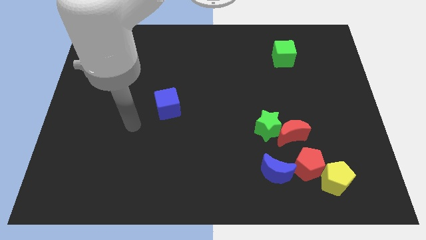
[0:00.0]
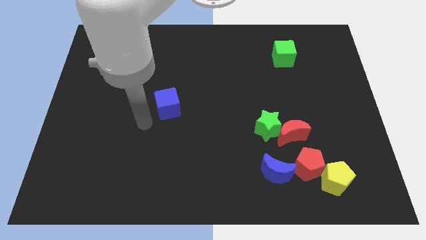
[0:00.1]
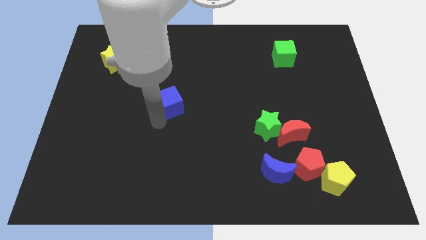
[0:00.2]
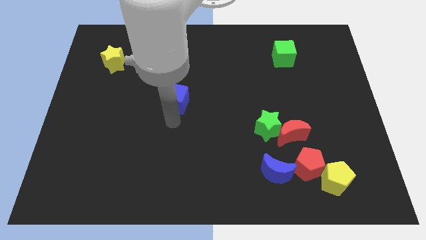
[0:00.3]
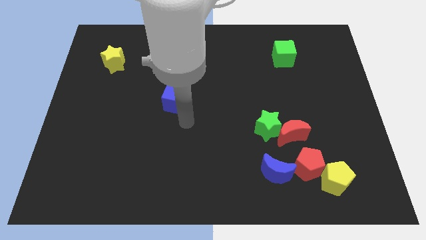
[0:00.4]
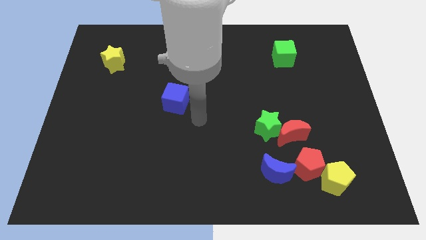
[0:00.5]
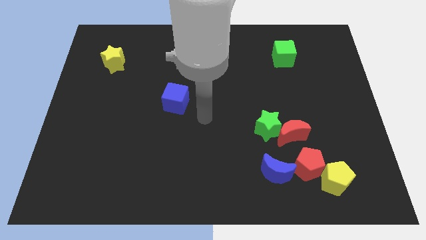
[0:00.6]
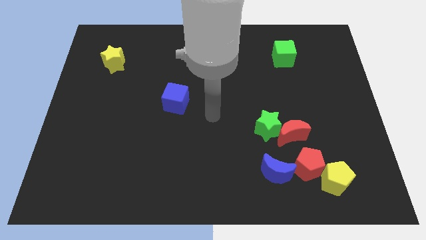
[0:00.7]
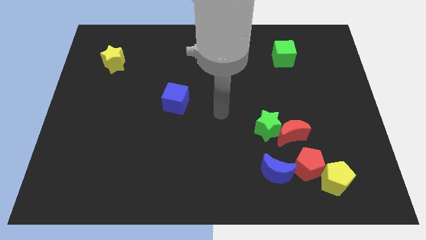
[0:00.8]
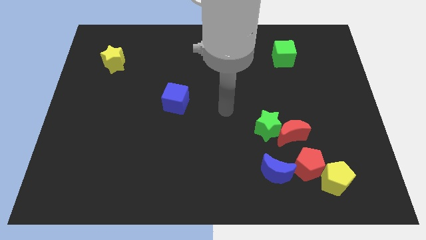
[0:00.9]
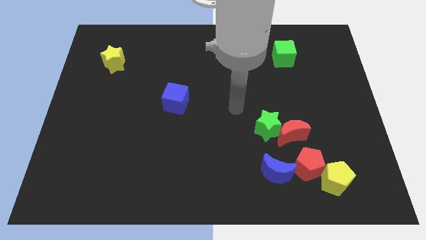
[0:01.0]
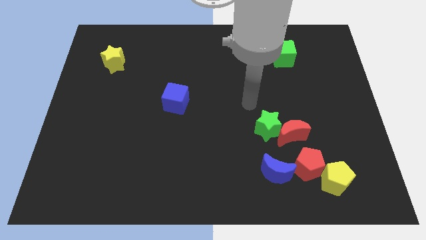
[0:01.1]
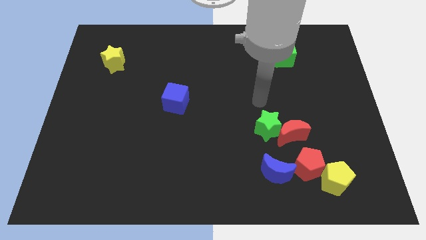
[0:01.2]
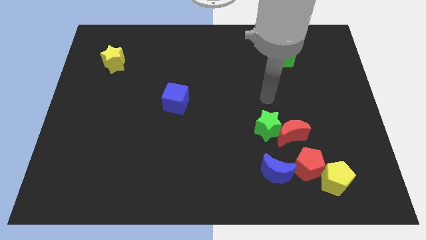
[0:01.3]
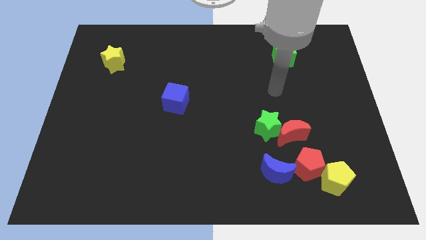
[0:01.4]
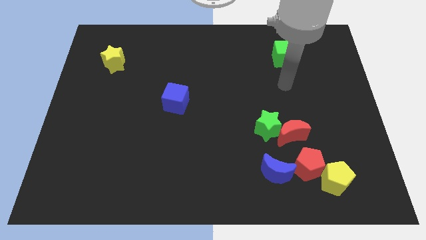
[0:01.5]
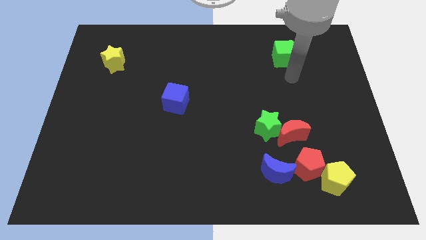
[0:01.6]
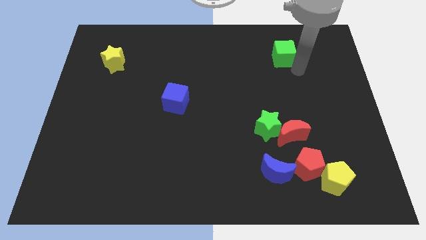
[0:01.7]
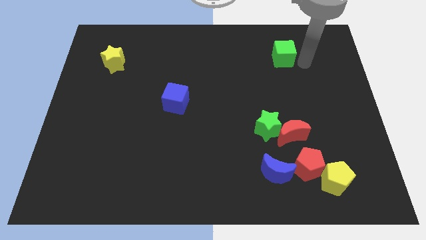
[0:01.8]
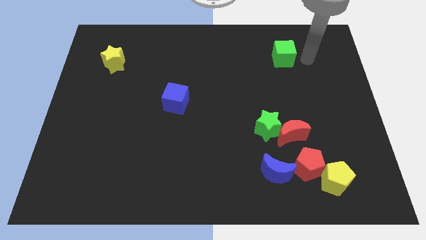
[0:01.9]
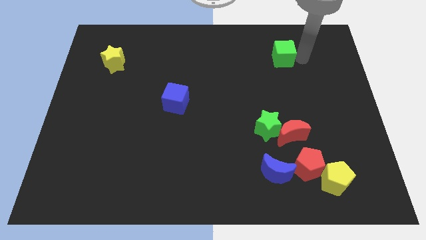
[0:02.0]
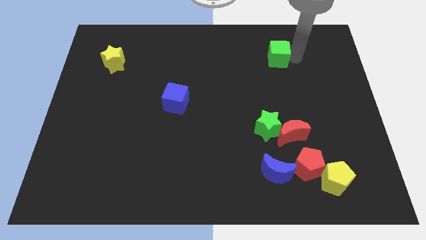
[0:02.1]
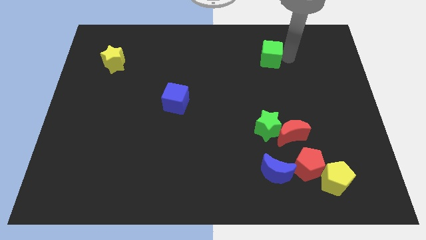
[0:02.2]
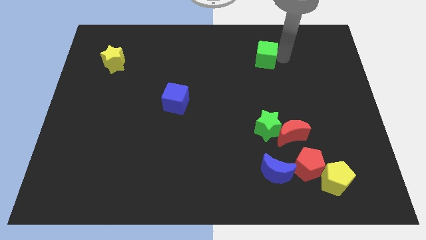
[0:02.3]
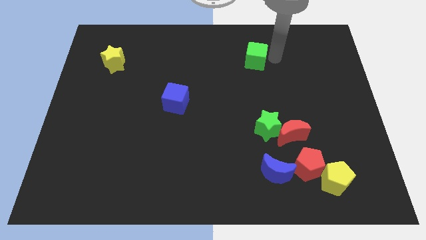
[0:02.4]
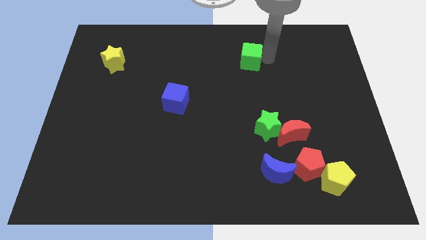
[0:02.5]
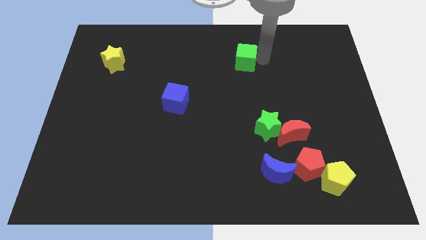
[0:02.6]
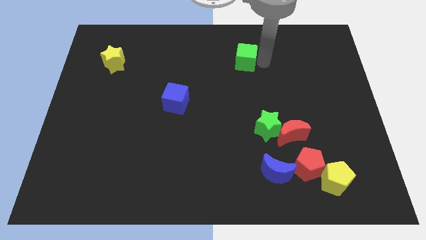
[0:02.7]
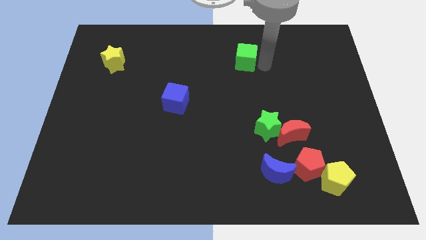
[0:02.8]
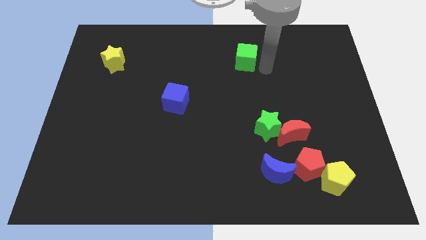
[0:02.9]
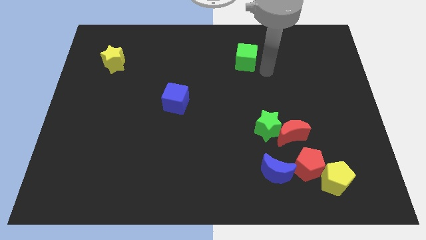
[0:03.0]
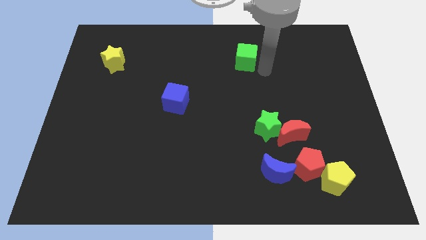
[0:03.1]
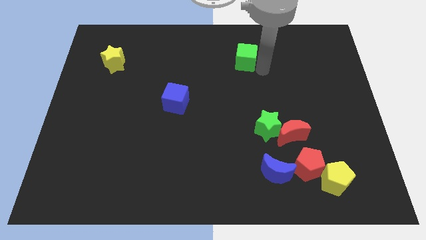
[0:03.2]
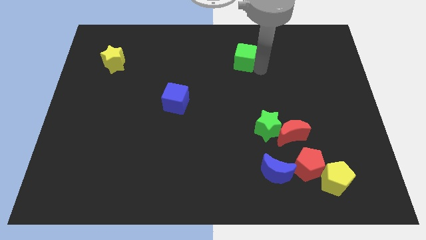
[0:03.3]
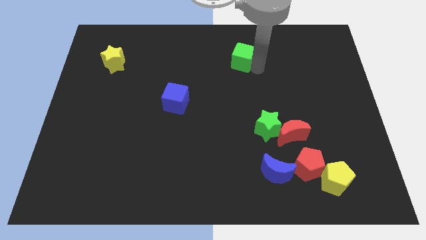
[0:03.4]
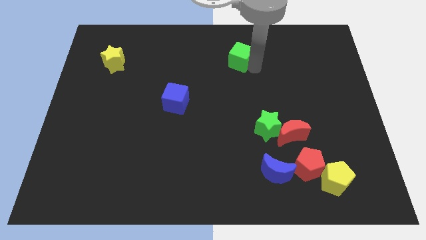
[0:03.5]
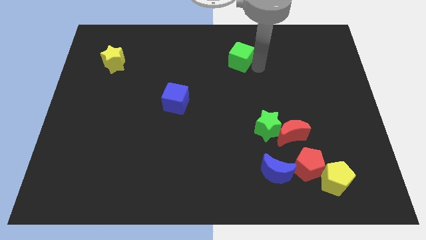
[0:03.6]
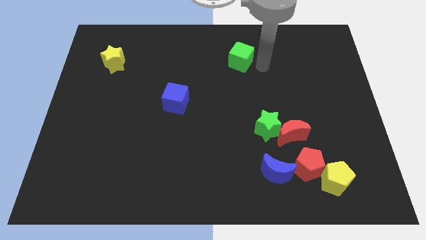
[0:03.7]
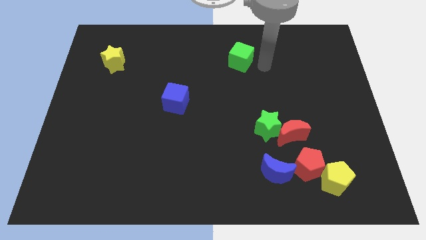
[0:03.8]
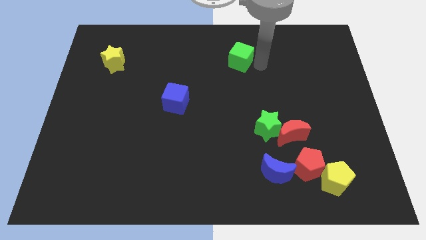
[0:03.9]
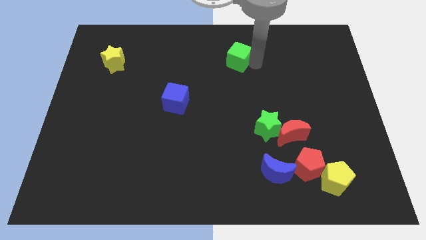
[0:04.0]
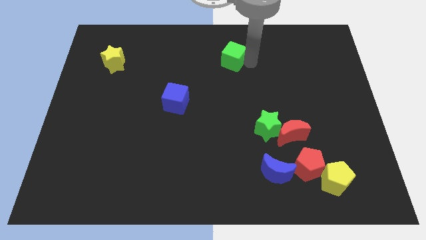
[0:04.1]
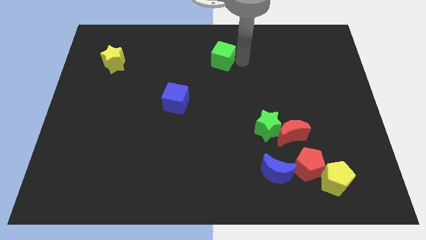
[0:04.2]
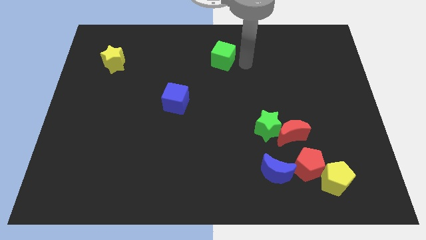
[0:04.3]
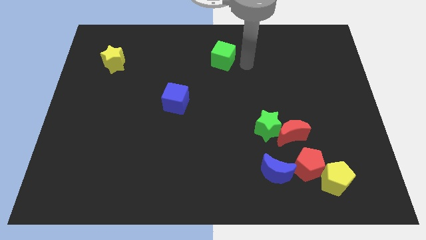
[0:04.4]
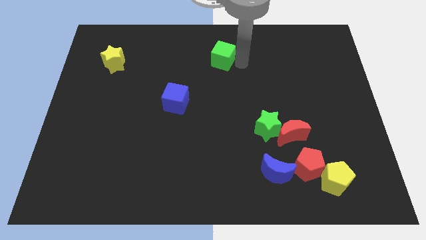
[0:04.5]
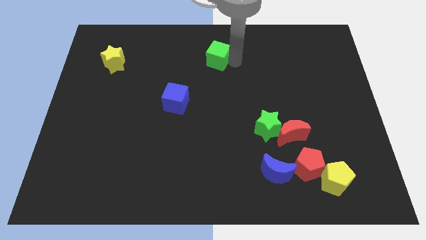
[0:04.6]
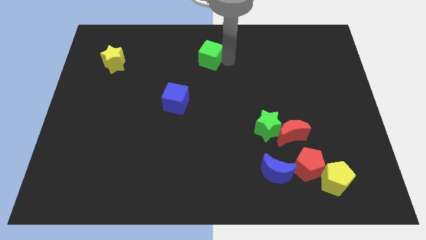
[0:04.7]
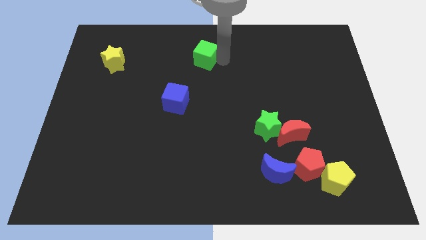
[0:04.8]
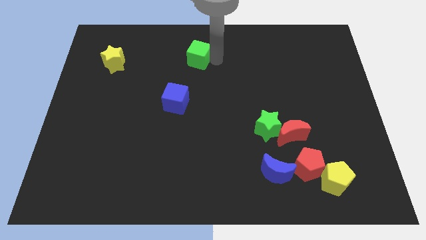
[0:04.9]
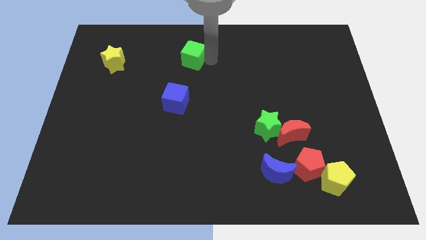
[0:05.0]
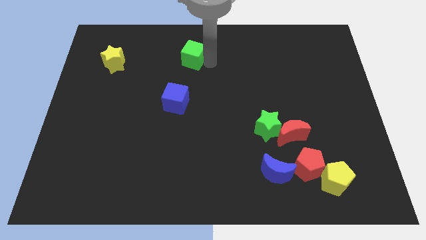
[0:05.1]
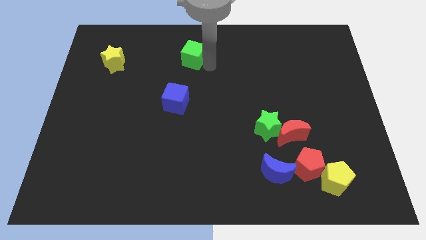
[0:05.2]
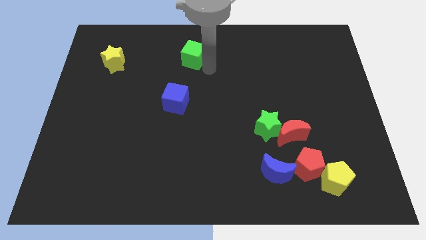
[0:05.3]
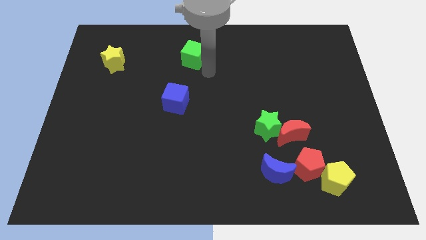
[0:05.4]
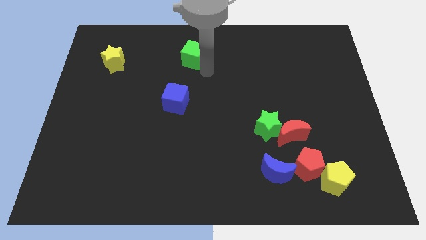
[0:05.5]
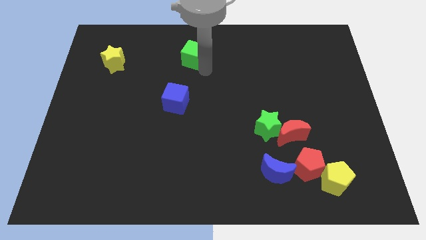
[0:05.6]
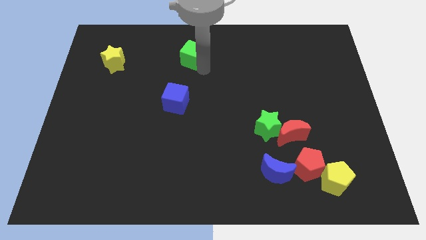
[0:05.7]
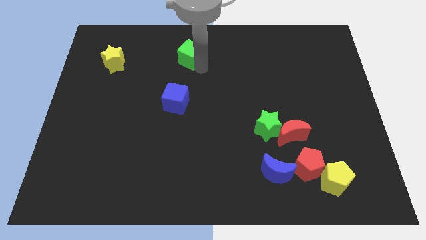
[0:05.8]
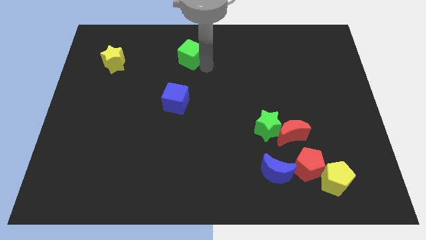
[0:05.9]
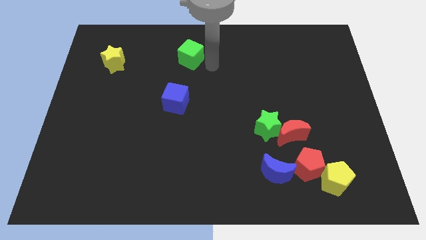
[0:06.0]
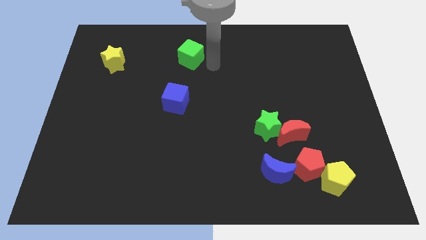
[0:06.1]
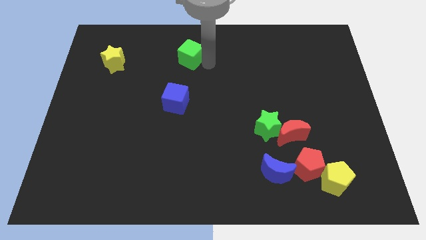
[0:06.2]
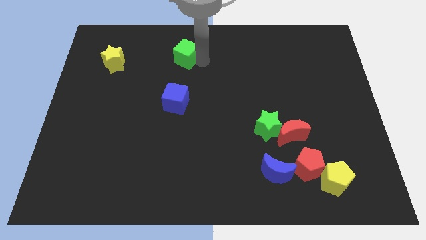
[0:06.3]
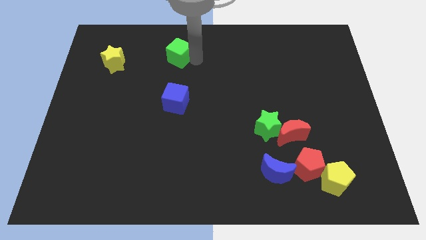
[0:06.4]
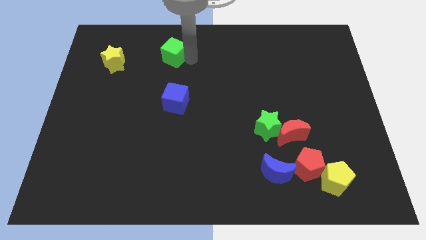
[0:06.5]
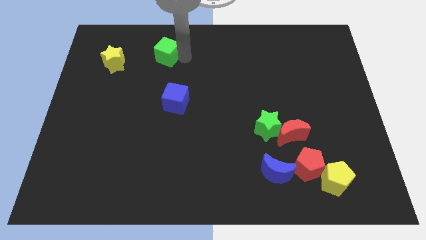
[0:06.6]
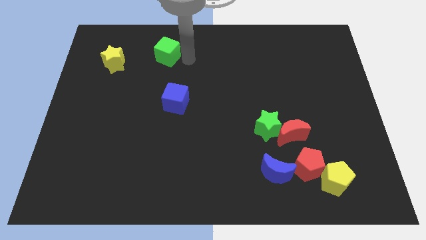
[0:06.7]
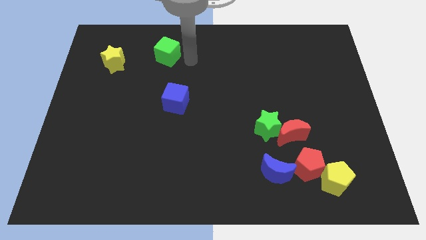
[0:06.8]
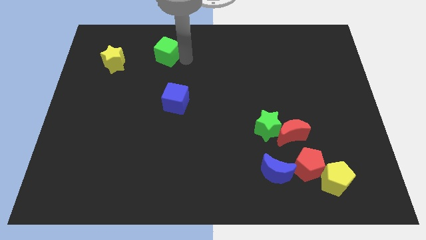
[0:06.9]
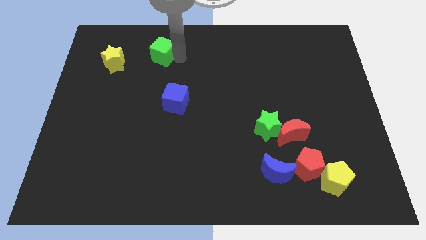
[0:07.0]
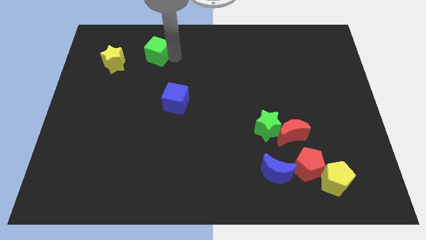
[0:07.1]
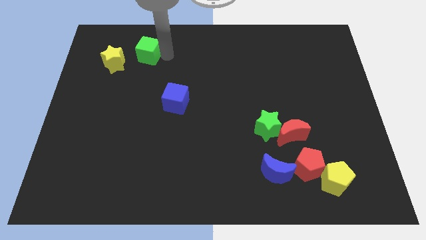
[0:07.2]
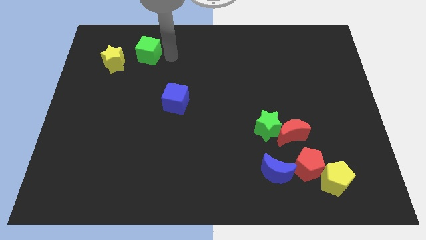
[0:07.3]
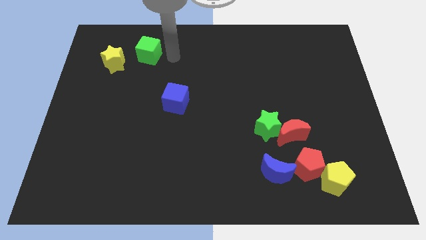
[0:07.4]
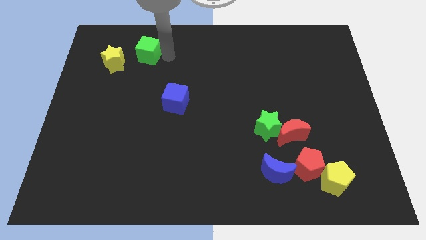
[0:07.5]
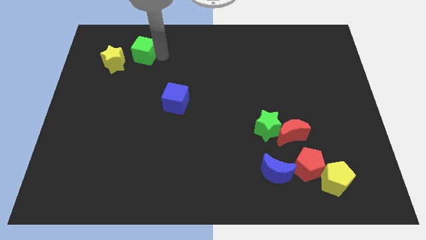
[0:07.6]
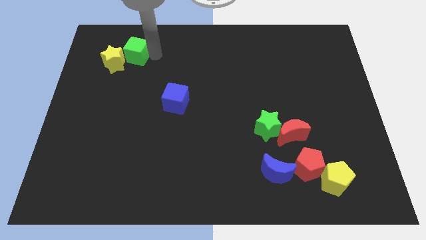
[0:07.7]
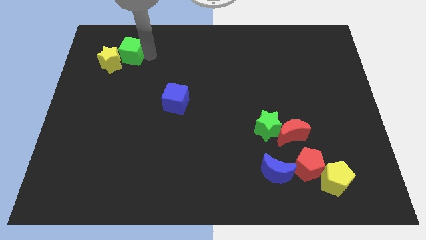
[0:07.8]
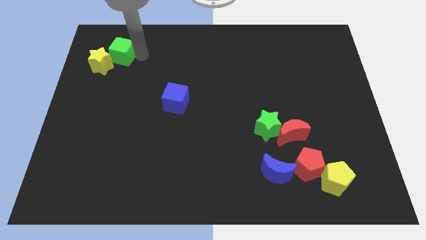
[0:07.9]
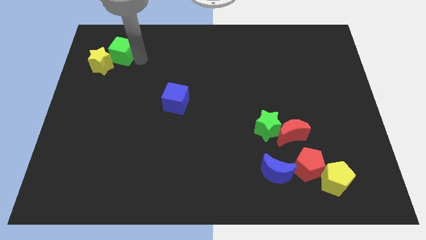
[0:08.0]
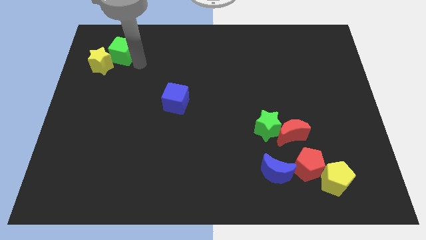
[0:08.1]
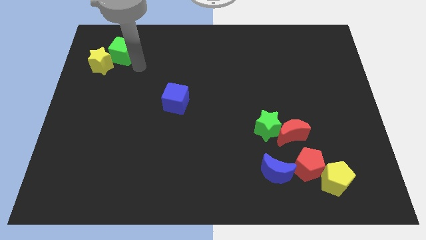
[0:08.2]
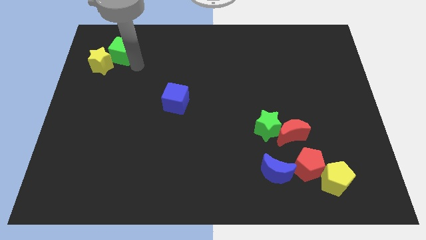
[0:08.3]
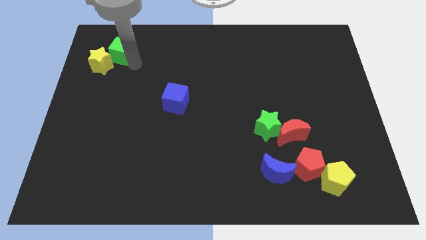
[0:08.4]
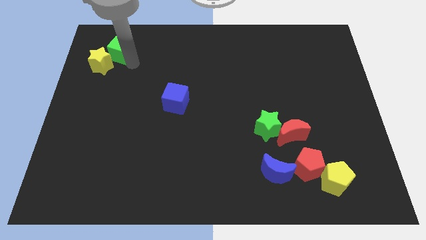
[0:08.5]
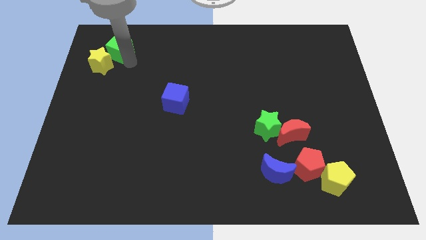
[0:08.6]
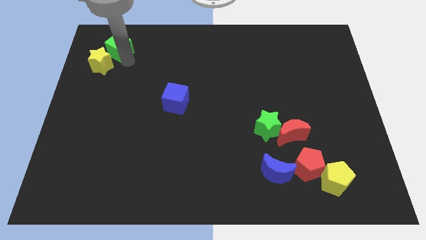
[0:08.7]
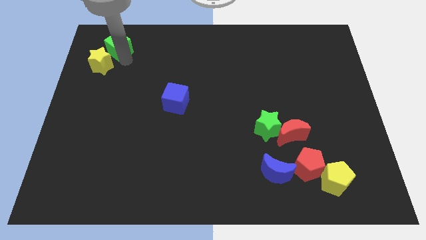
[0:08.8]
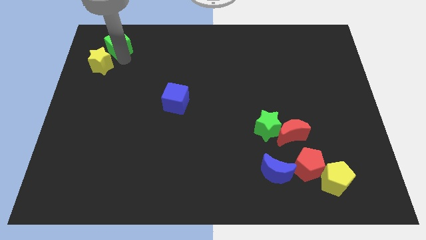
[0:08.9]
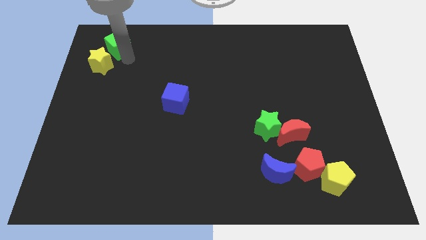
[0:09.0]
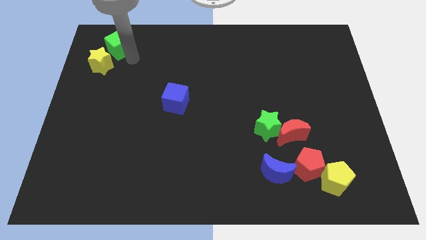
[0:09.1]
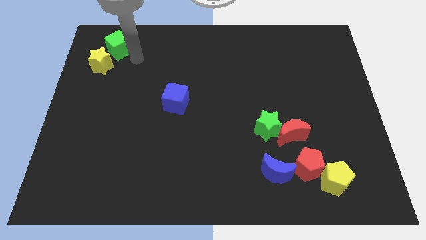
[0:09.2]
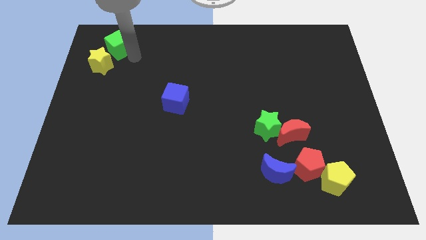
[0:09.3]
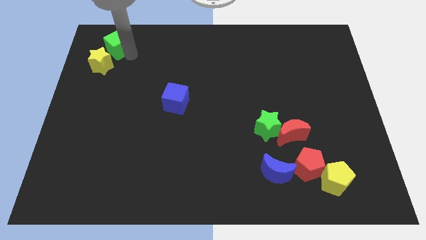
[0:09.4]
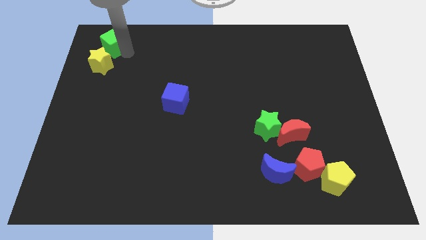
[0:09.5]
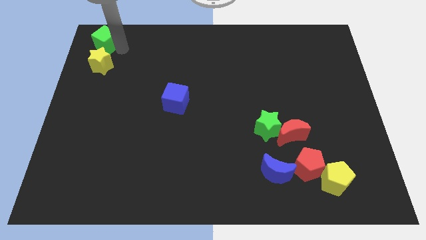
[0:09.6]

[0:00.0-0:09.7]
put the green cube to the top left corner
